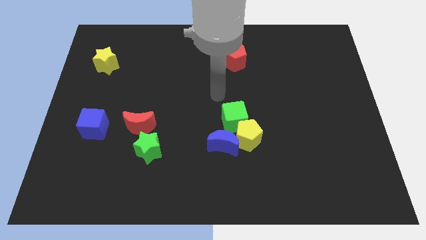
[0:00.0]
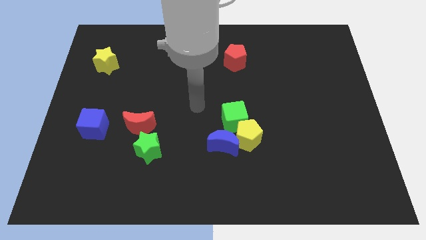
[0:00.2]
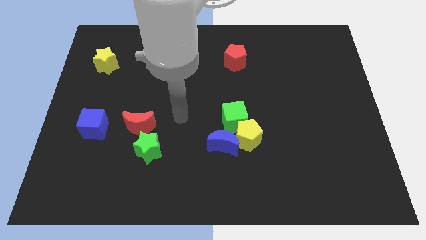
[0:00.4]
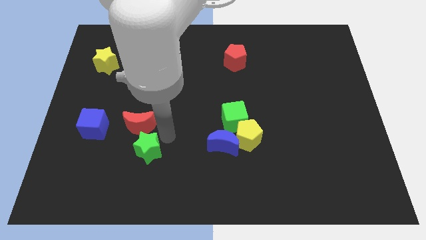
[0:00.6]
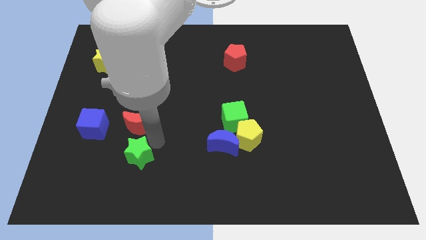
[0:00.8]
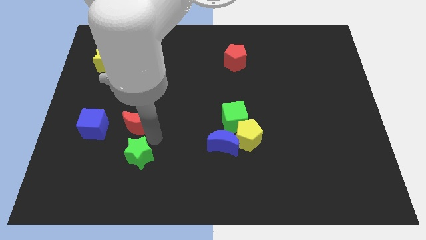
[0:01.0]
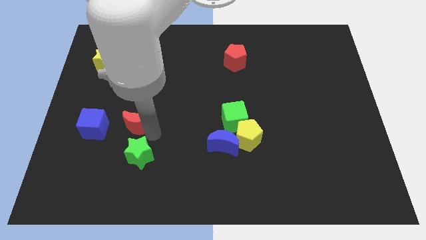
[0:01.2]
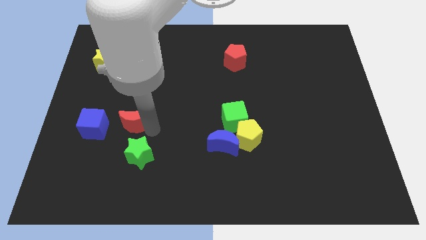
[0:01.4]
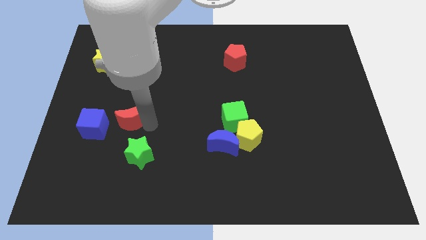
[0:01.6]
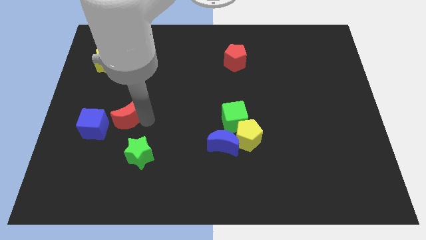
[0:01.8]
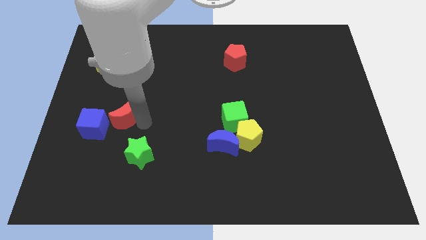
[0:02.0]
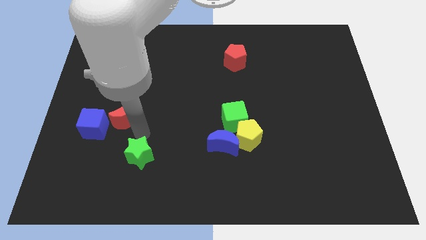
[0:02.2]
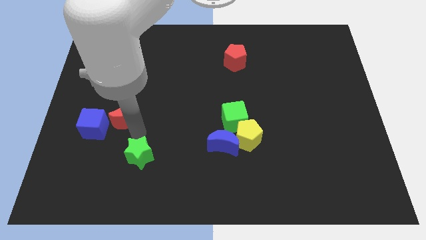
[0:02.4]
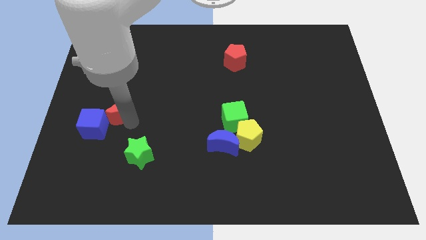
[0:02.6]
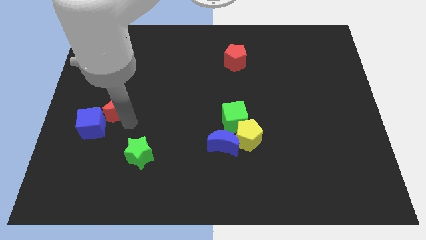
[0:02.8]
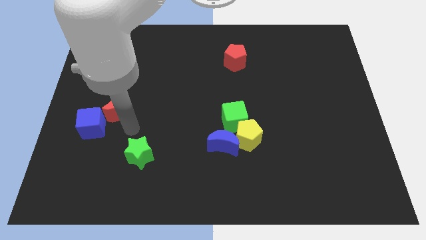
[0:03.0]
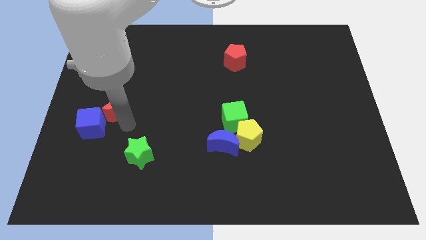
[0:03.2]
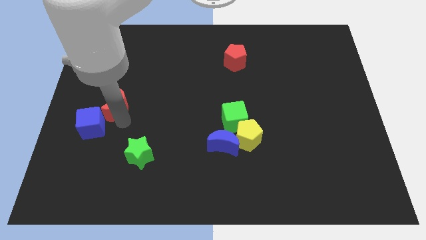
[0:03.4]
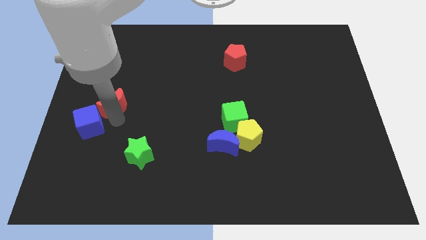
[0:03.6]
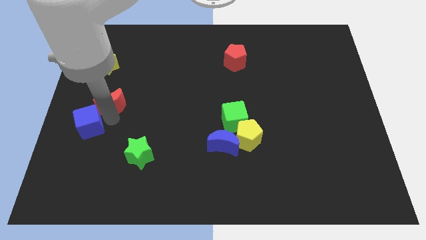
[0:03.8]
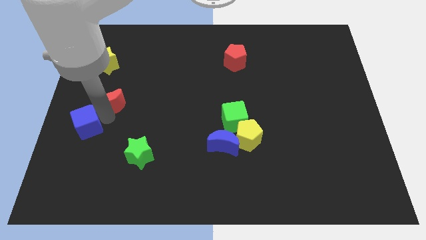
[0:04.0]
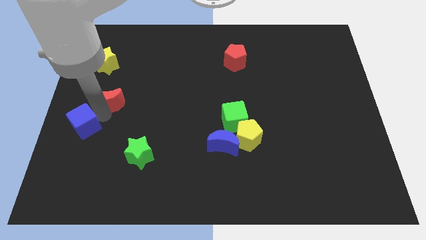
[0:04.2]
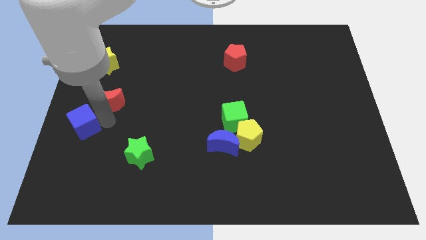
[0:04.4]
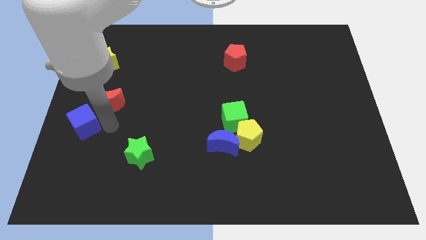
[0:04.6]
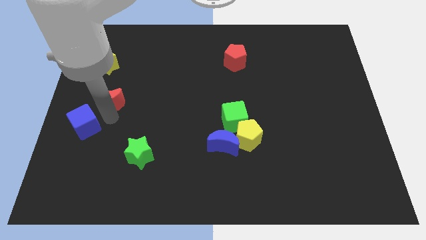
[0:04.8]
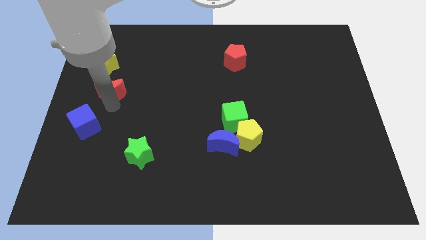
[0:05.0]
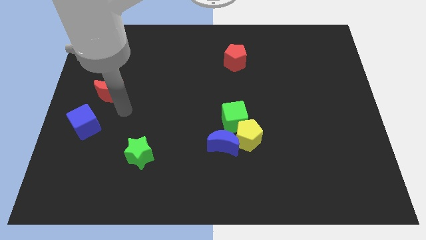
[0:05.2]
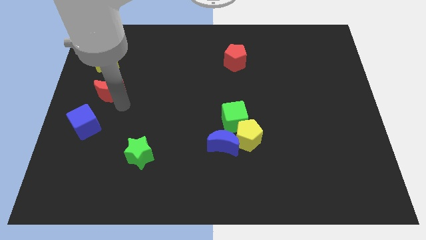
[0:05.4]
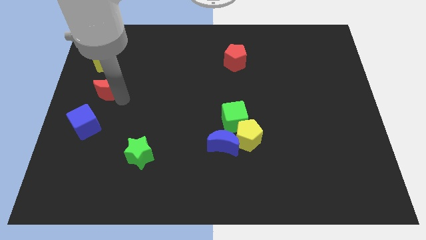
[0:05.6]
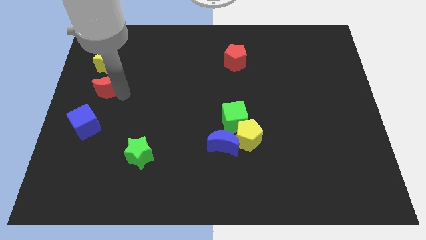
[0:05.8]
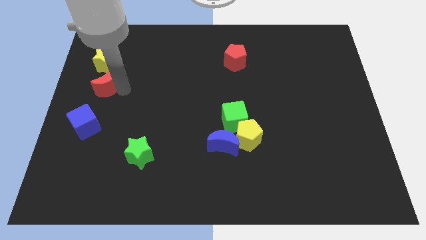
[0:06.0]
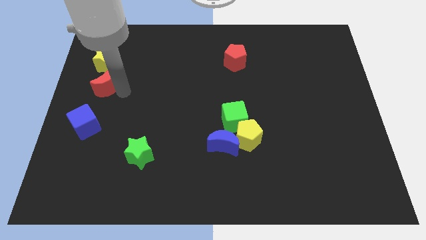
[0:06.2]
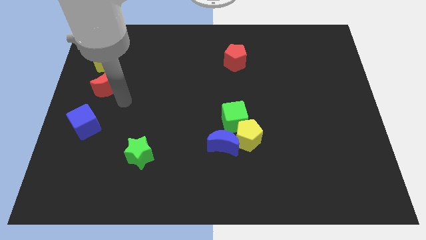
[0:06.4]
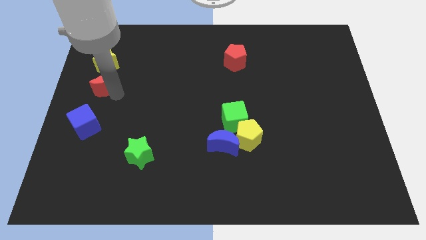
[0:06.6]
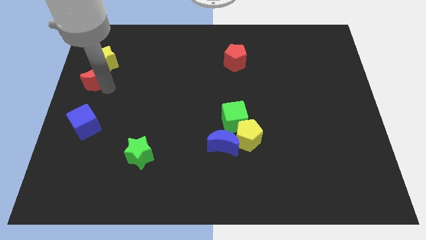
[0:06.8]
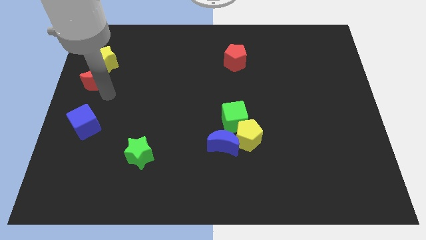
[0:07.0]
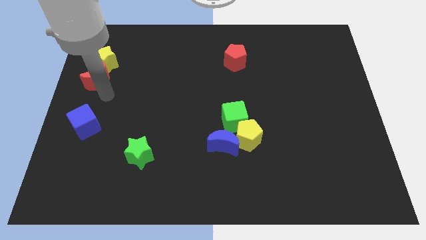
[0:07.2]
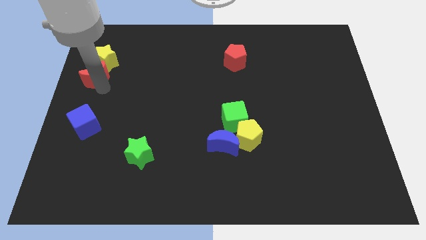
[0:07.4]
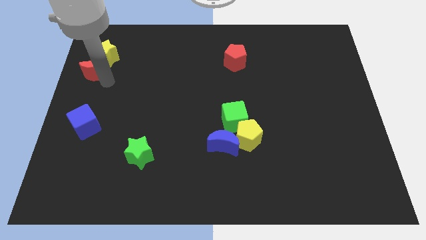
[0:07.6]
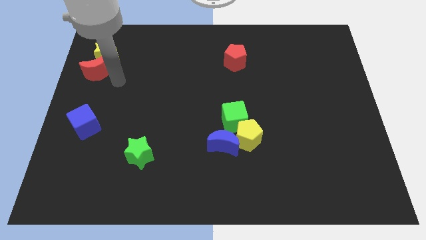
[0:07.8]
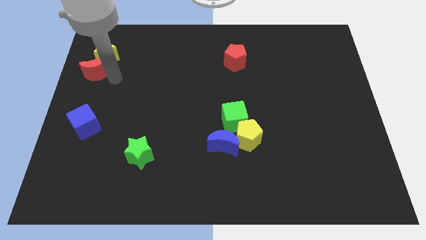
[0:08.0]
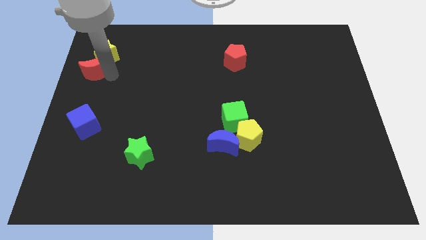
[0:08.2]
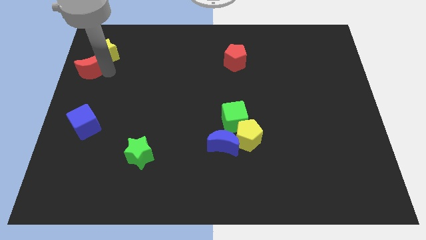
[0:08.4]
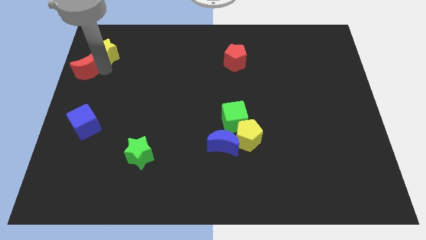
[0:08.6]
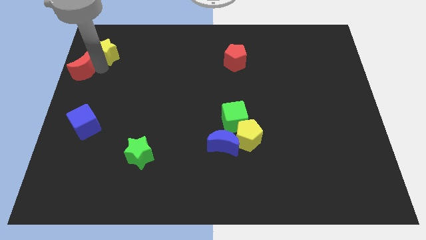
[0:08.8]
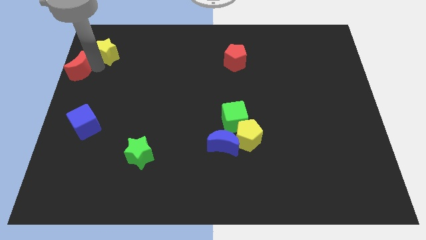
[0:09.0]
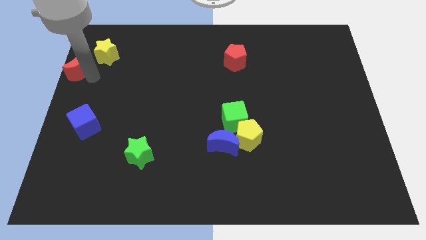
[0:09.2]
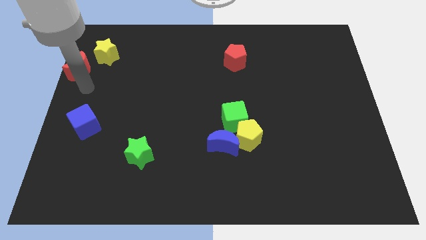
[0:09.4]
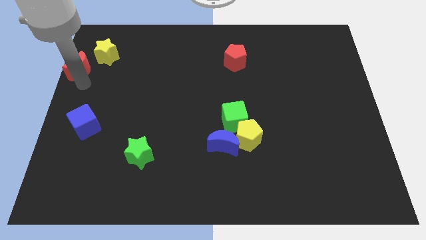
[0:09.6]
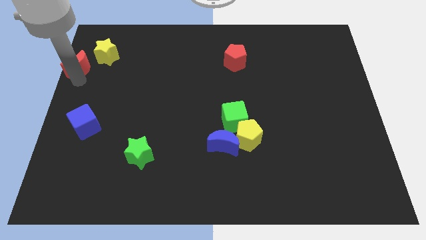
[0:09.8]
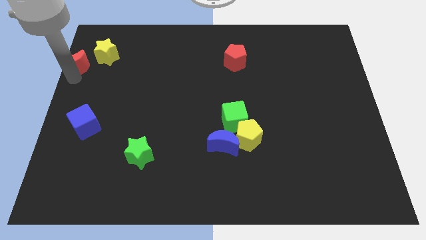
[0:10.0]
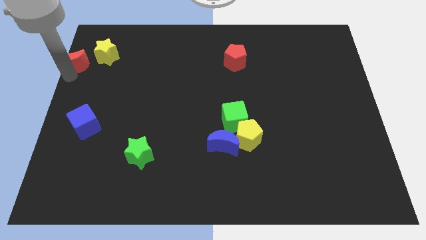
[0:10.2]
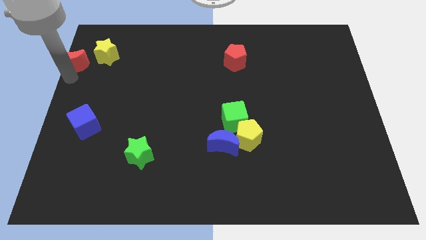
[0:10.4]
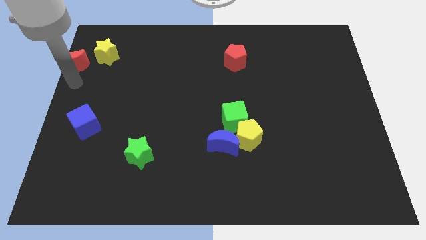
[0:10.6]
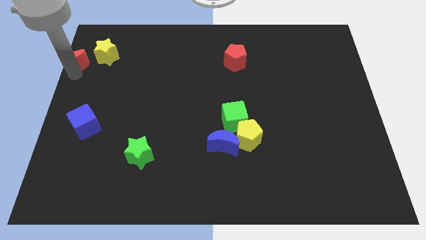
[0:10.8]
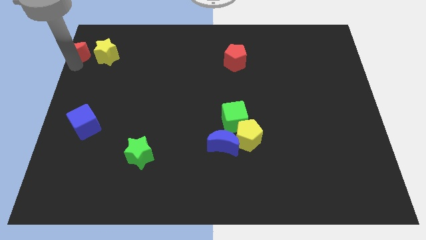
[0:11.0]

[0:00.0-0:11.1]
move the red moon to the top left of the board

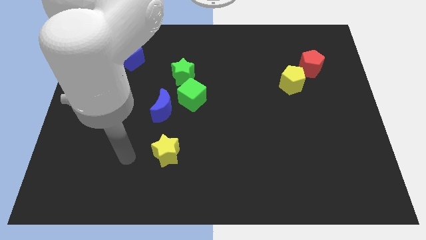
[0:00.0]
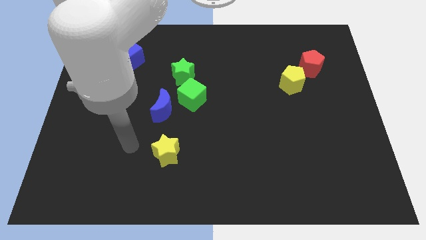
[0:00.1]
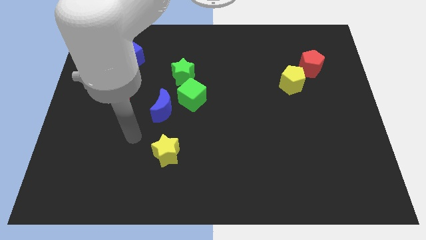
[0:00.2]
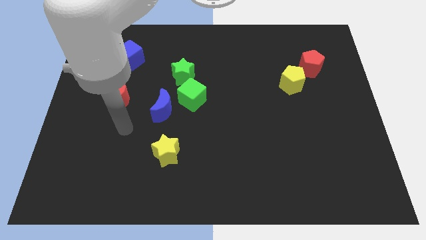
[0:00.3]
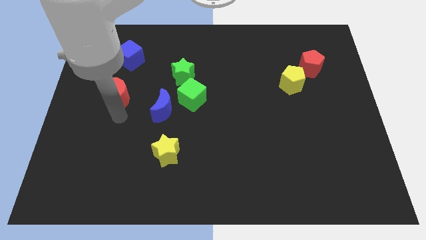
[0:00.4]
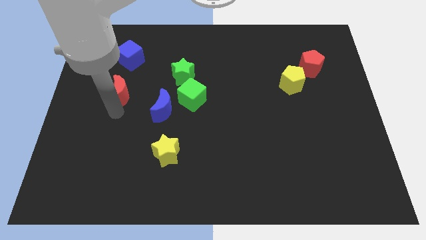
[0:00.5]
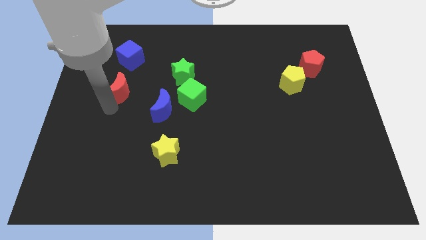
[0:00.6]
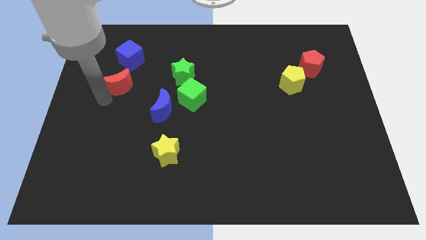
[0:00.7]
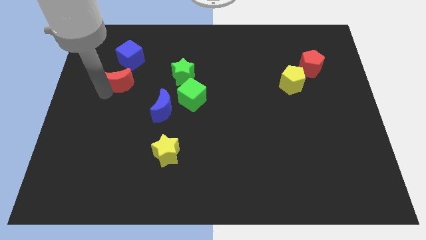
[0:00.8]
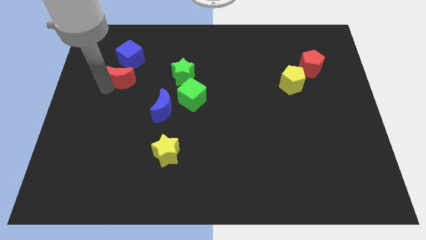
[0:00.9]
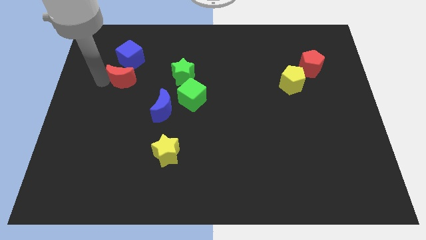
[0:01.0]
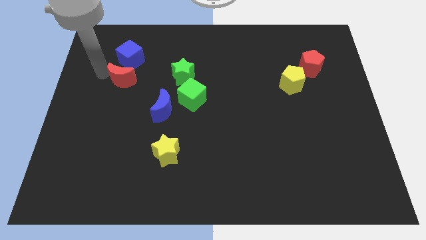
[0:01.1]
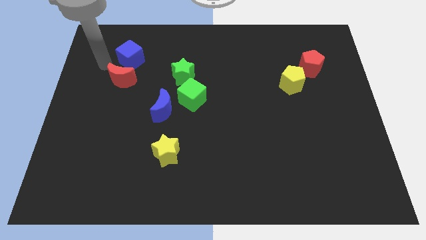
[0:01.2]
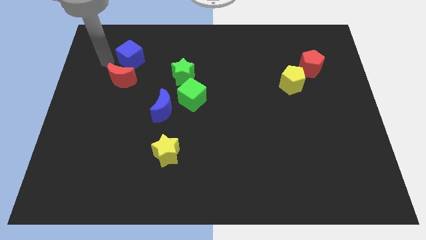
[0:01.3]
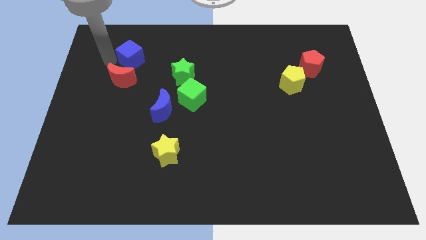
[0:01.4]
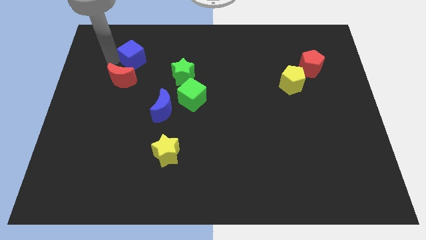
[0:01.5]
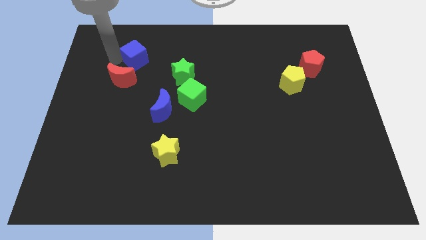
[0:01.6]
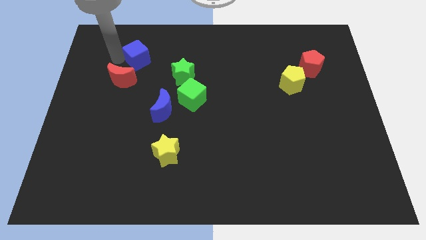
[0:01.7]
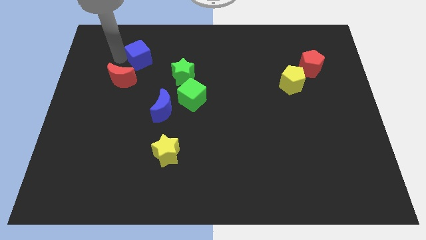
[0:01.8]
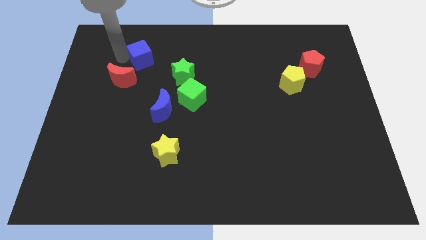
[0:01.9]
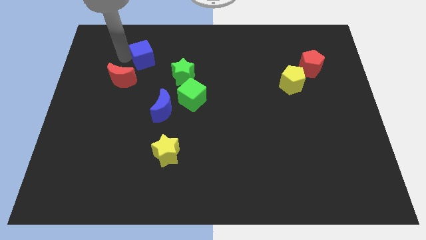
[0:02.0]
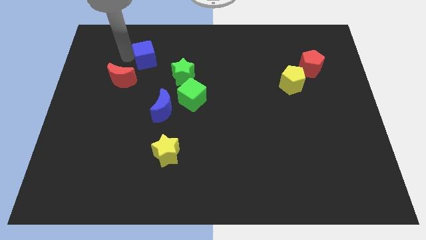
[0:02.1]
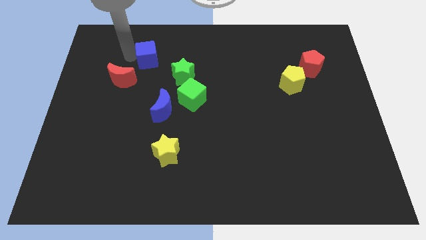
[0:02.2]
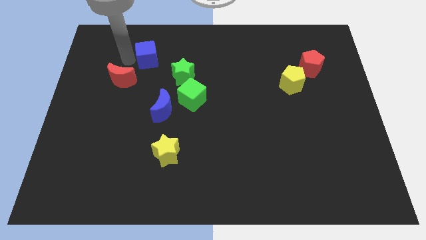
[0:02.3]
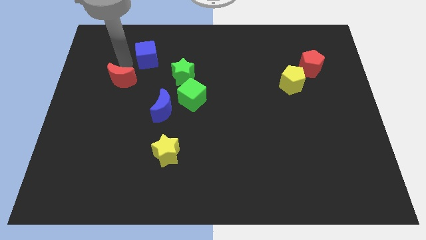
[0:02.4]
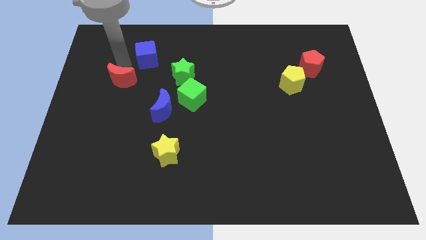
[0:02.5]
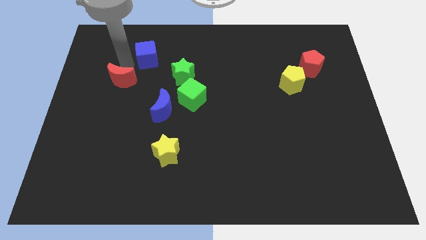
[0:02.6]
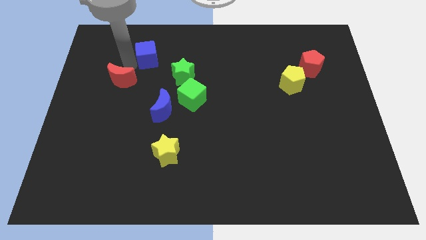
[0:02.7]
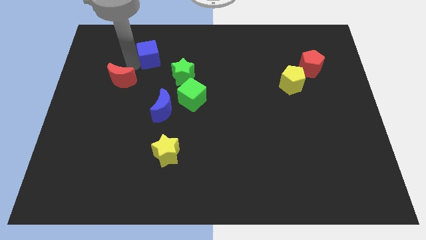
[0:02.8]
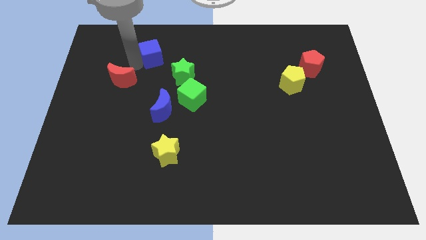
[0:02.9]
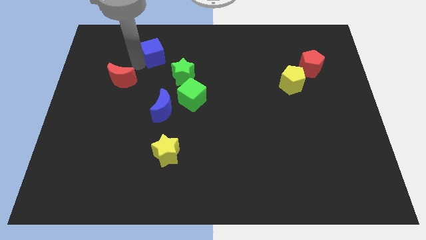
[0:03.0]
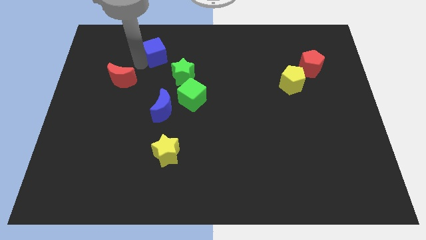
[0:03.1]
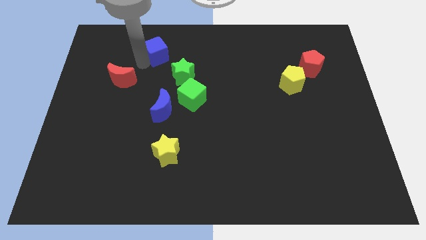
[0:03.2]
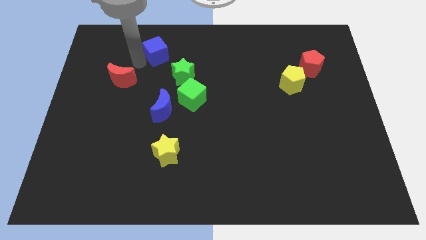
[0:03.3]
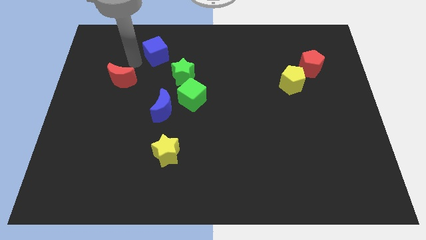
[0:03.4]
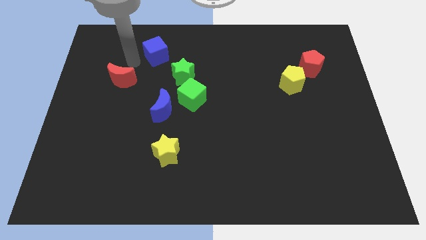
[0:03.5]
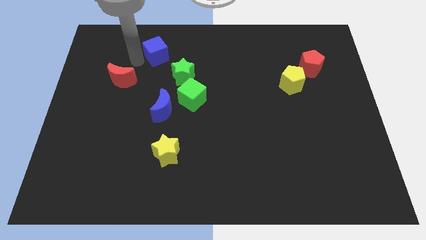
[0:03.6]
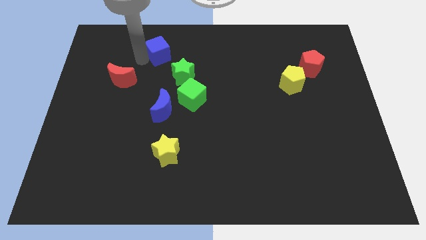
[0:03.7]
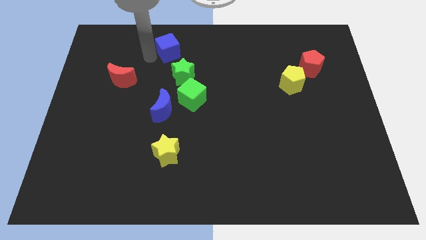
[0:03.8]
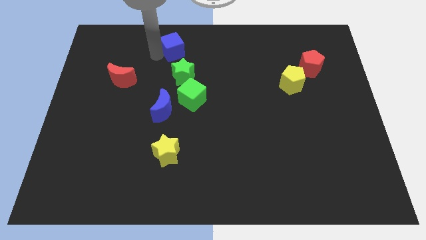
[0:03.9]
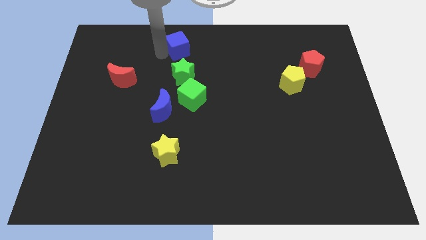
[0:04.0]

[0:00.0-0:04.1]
slide the blue cube to the towards your base
